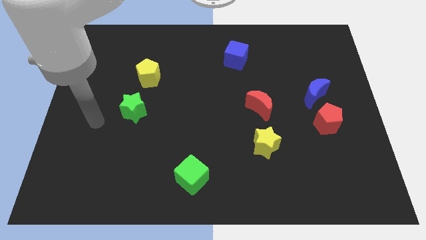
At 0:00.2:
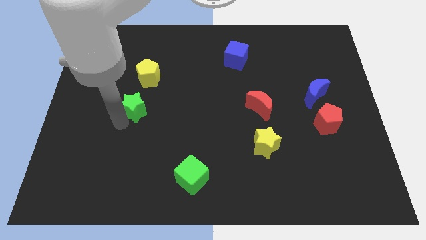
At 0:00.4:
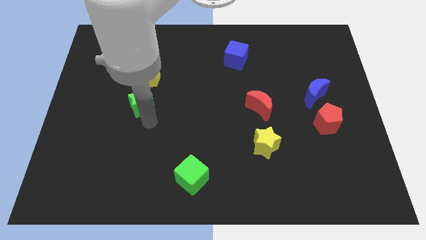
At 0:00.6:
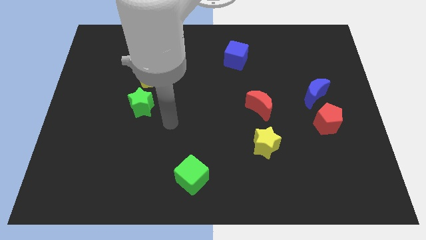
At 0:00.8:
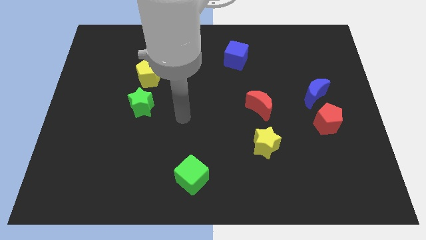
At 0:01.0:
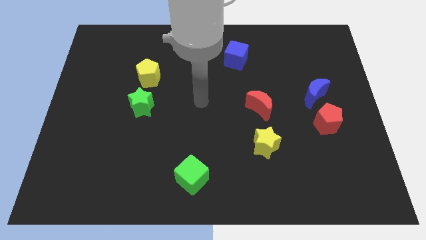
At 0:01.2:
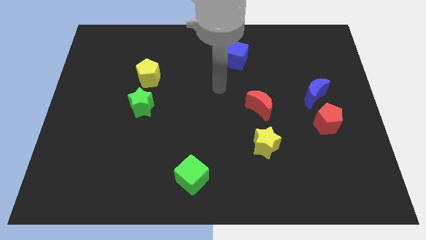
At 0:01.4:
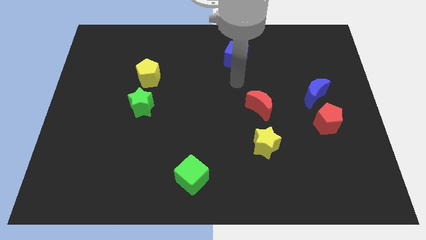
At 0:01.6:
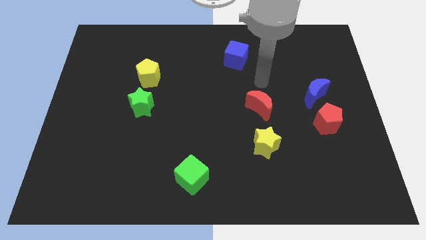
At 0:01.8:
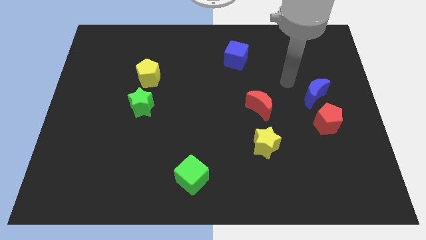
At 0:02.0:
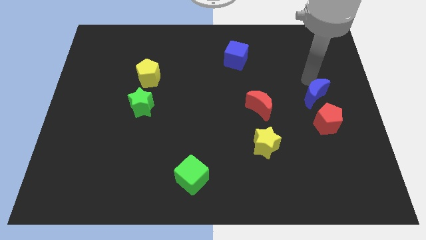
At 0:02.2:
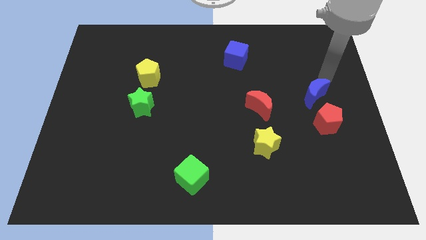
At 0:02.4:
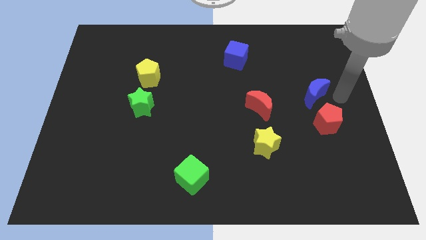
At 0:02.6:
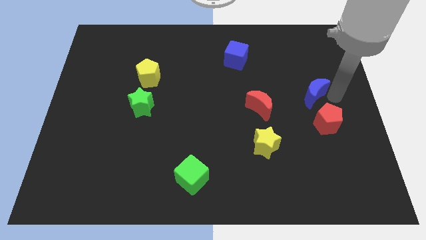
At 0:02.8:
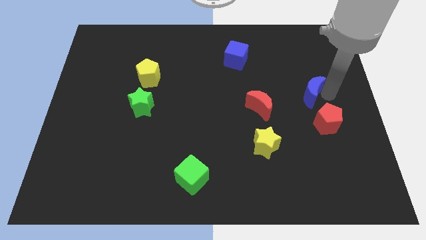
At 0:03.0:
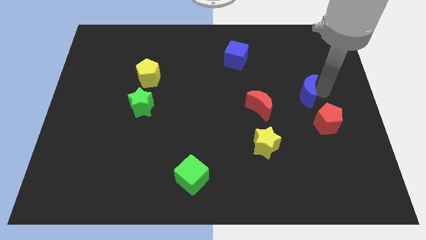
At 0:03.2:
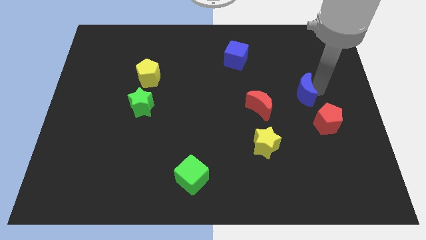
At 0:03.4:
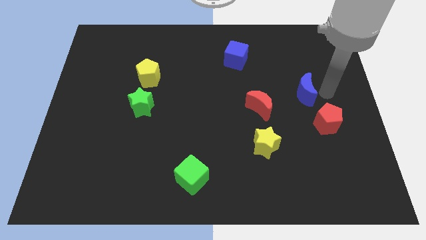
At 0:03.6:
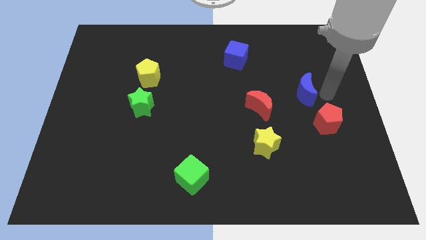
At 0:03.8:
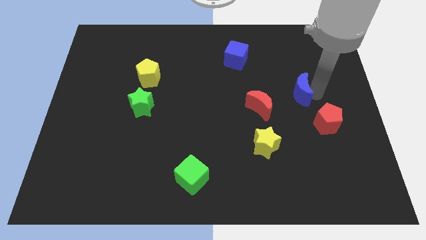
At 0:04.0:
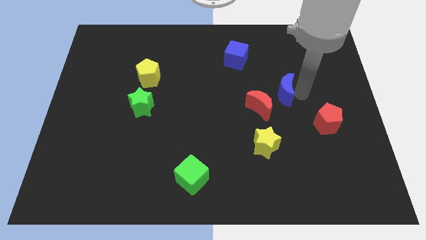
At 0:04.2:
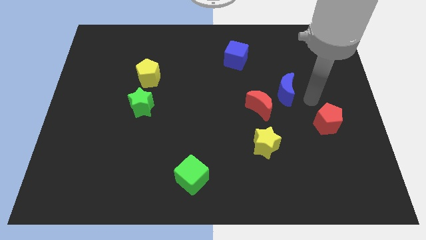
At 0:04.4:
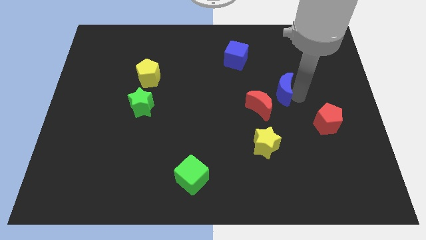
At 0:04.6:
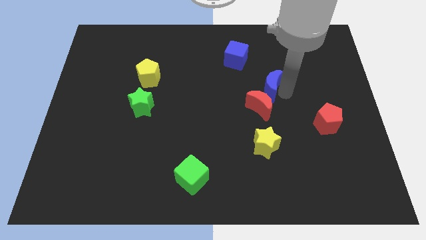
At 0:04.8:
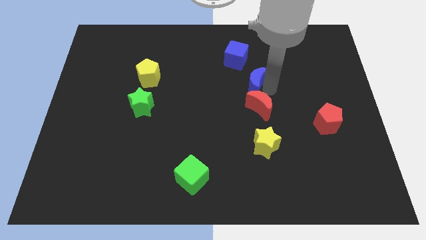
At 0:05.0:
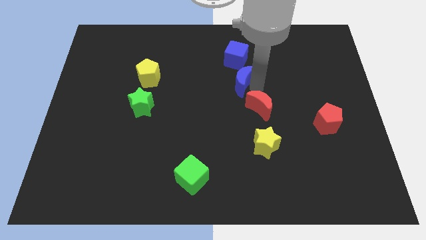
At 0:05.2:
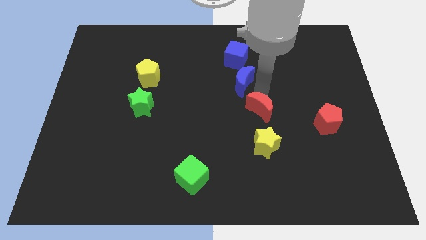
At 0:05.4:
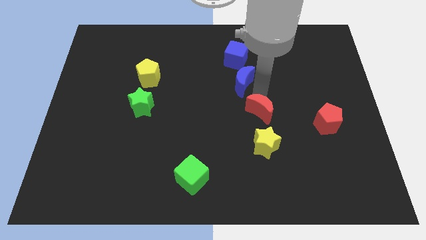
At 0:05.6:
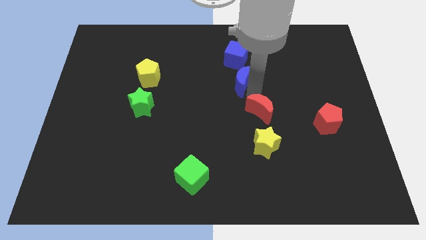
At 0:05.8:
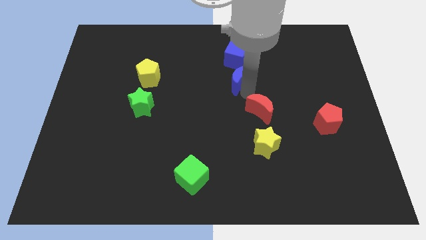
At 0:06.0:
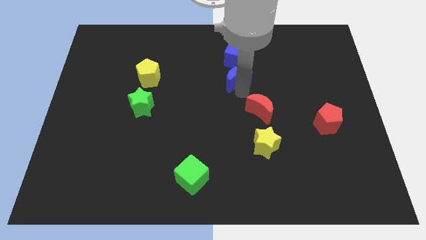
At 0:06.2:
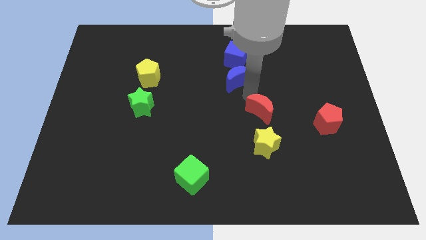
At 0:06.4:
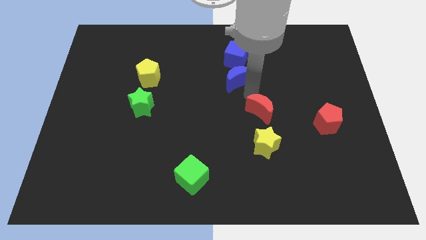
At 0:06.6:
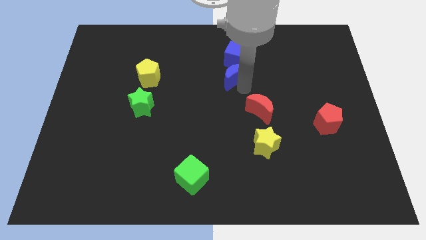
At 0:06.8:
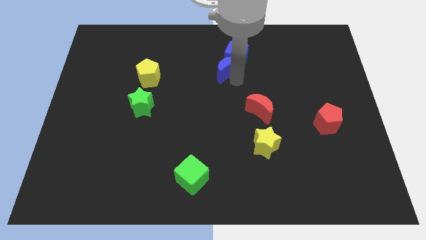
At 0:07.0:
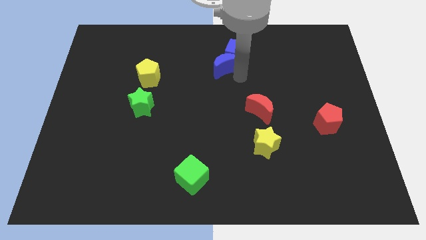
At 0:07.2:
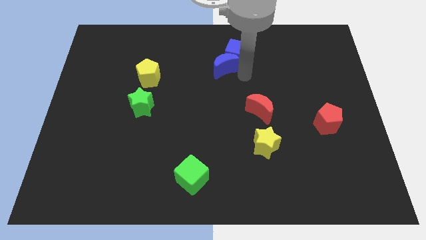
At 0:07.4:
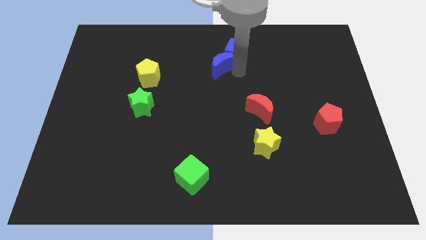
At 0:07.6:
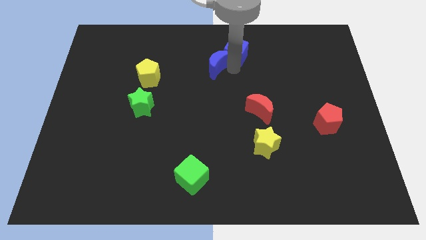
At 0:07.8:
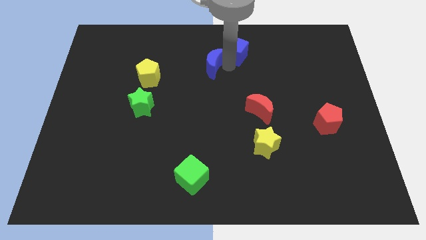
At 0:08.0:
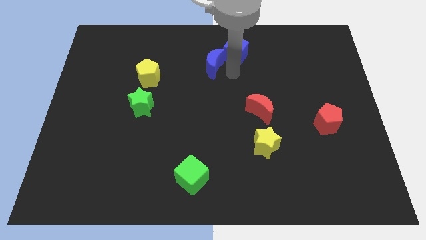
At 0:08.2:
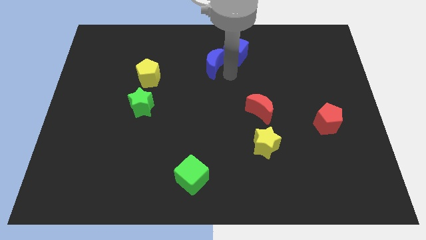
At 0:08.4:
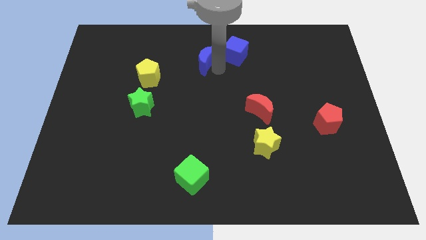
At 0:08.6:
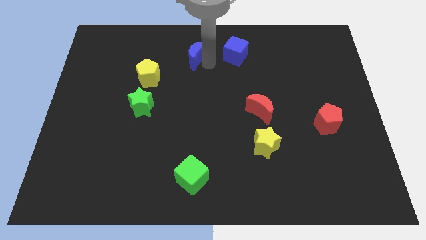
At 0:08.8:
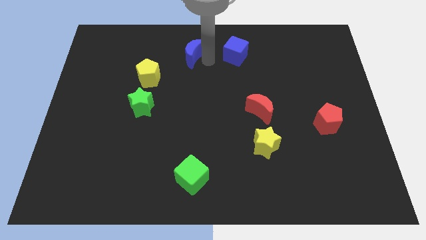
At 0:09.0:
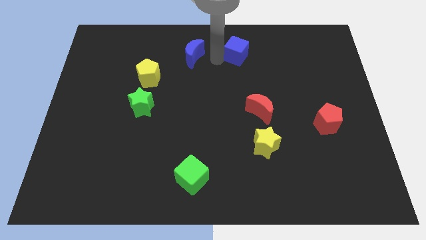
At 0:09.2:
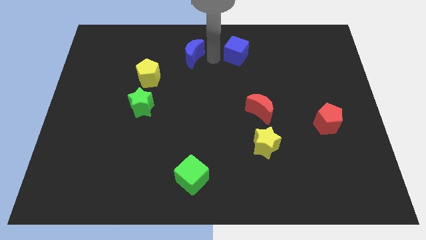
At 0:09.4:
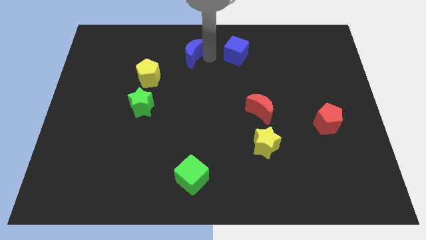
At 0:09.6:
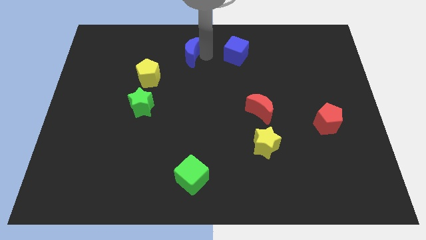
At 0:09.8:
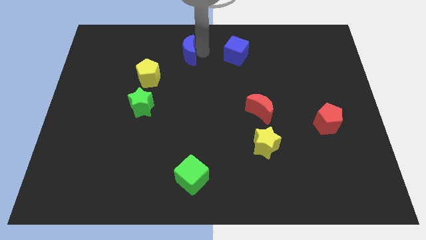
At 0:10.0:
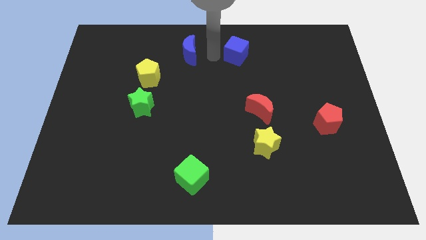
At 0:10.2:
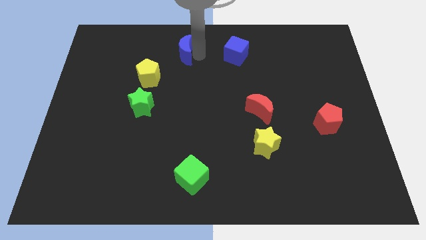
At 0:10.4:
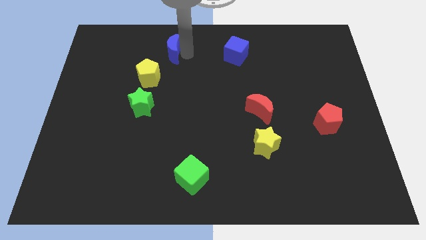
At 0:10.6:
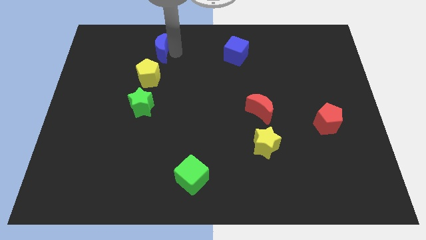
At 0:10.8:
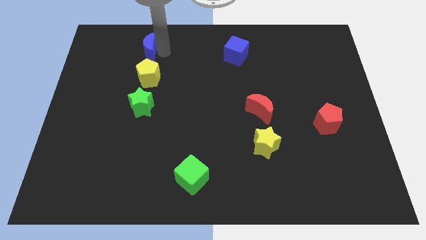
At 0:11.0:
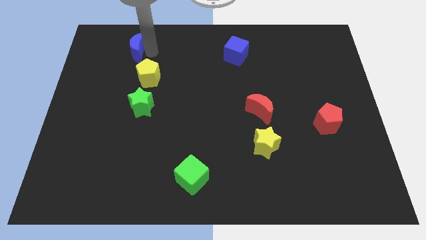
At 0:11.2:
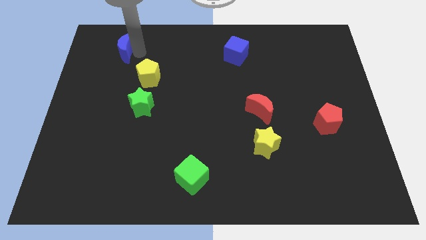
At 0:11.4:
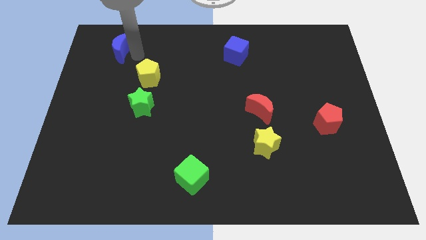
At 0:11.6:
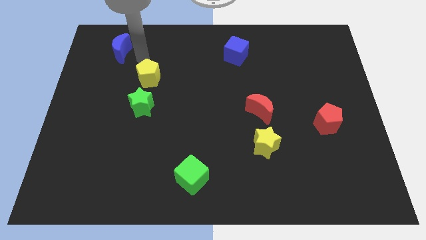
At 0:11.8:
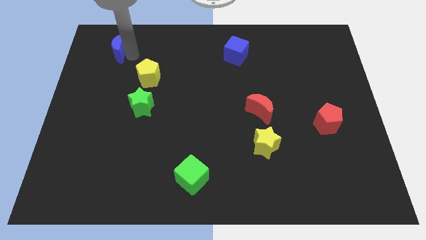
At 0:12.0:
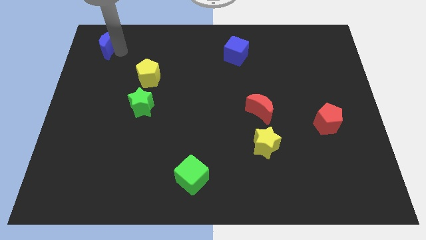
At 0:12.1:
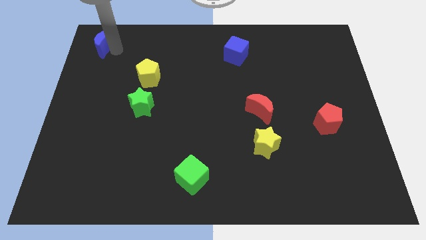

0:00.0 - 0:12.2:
slide the blue moon to the top left of the board
